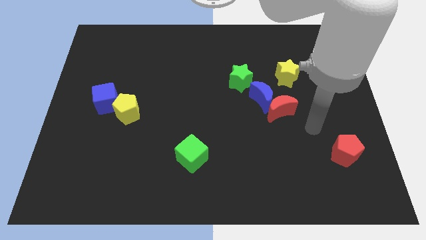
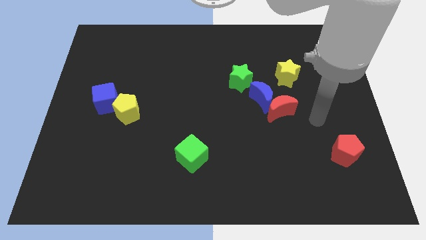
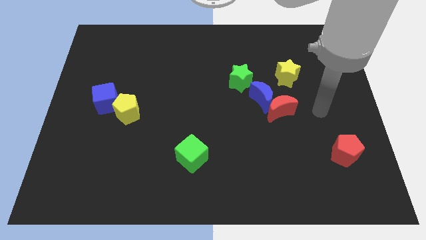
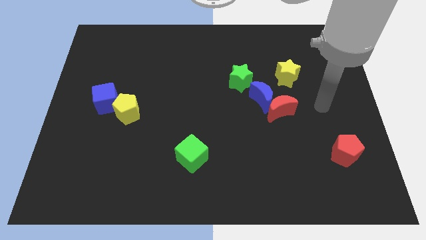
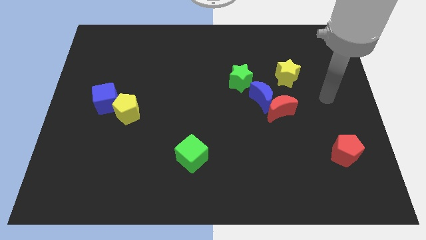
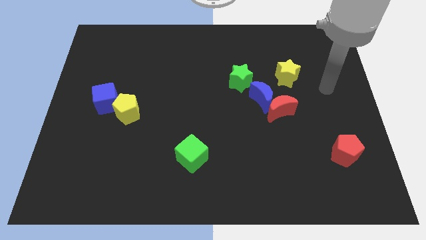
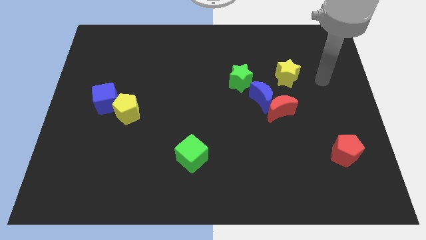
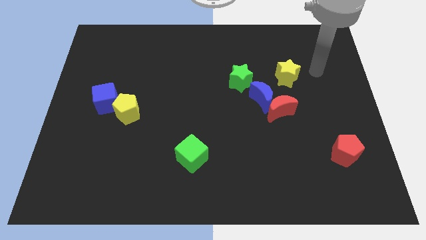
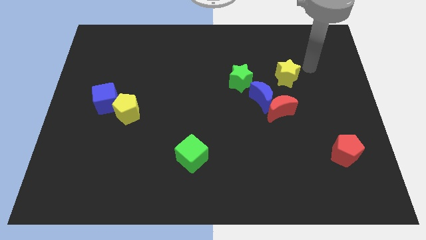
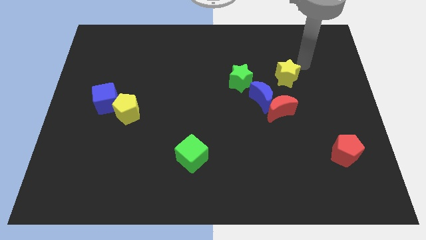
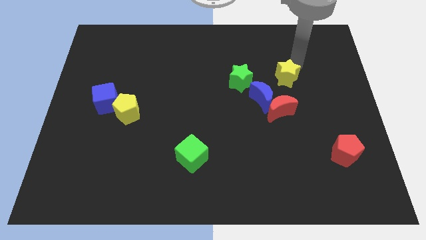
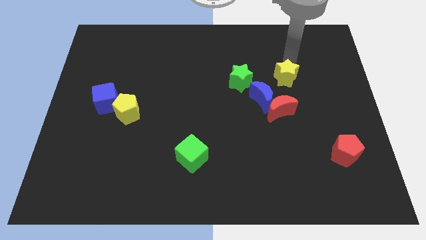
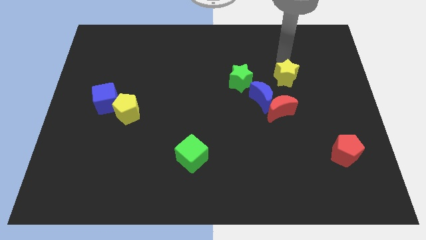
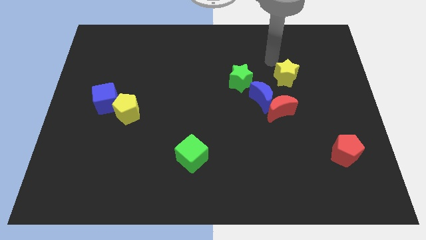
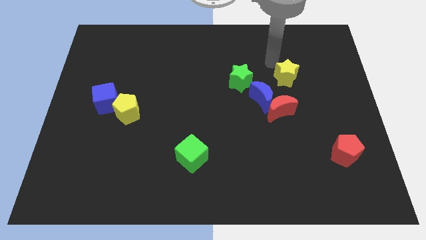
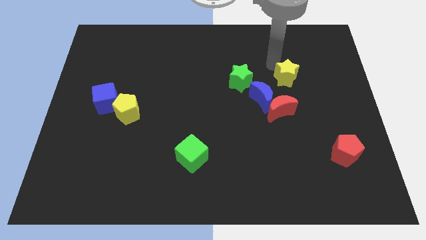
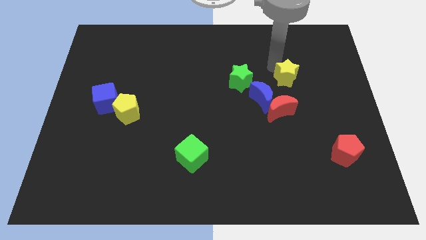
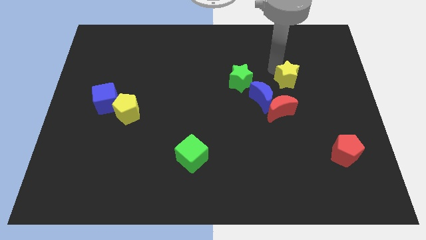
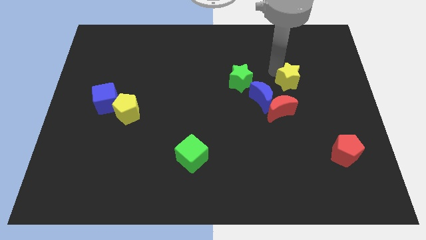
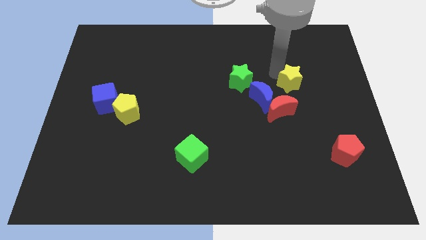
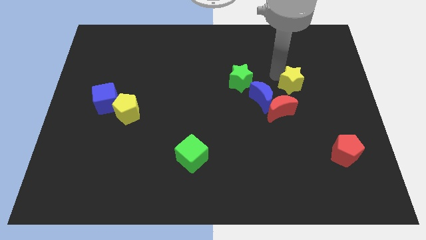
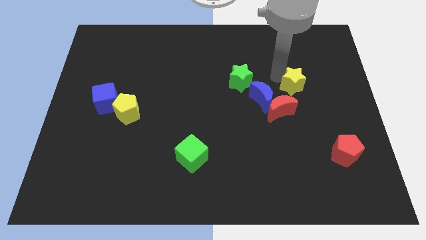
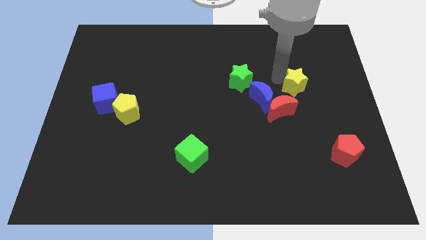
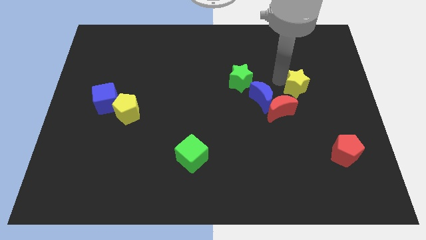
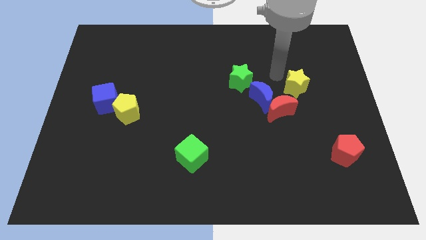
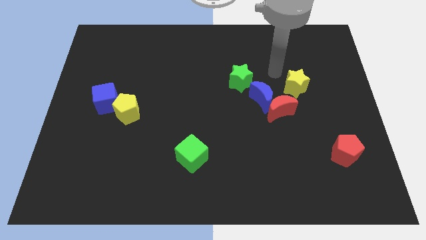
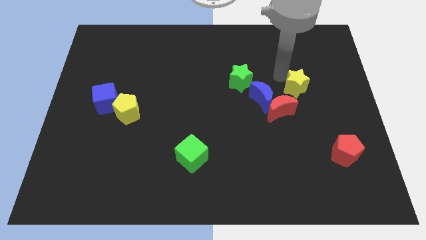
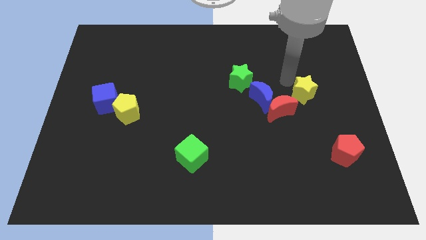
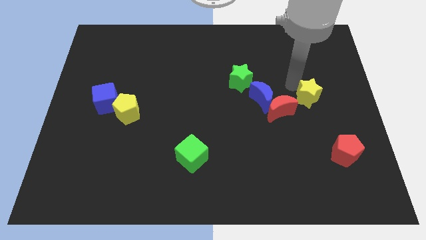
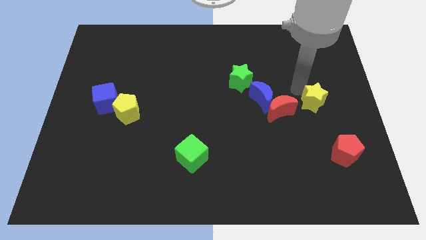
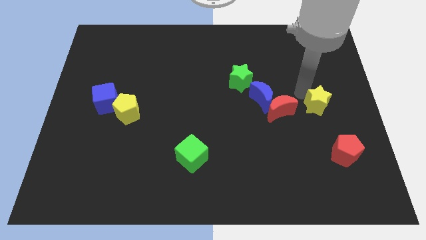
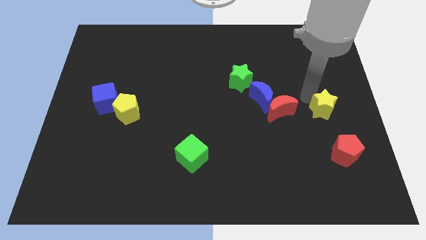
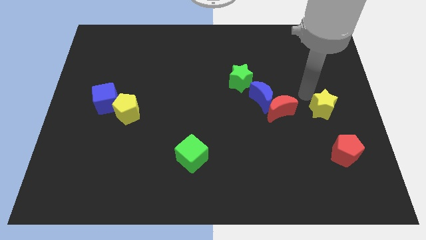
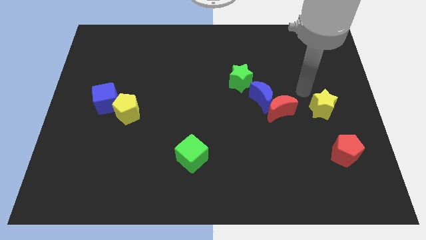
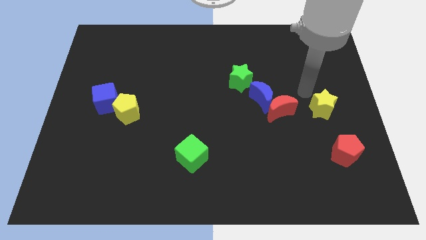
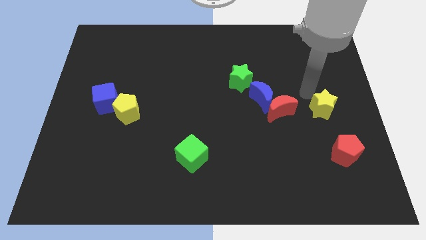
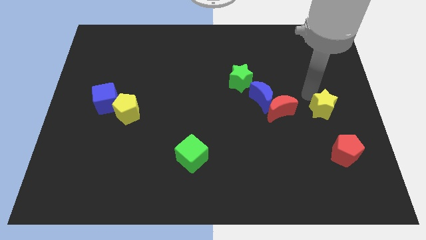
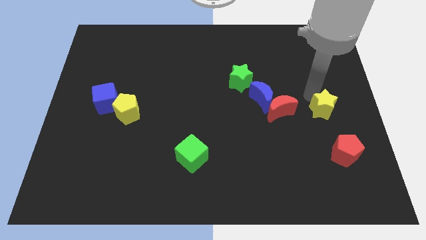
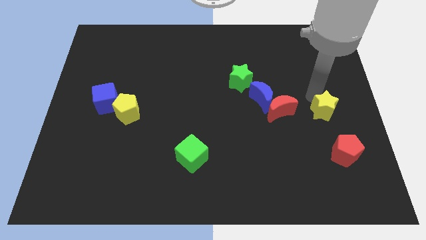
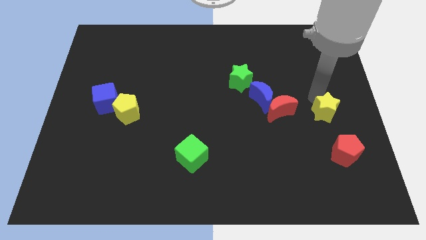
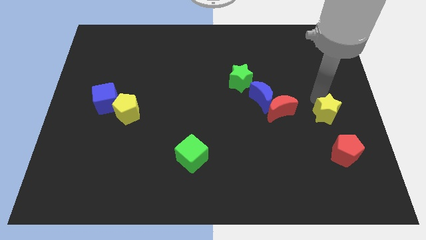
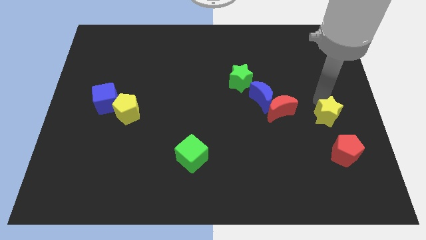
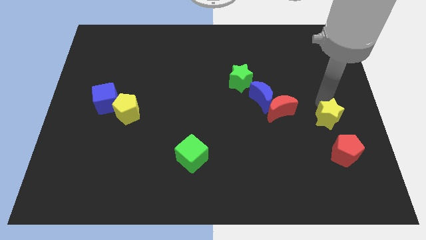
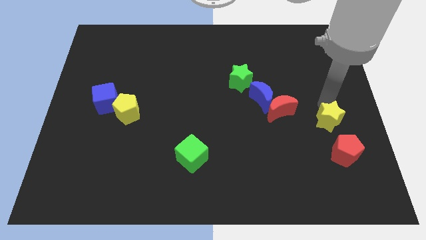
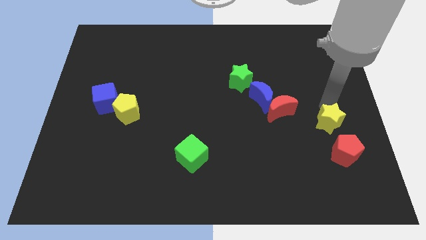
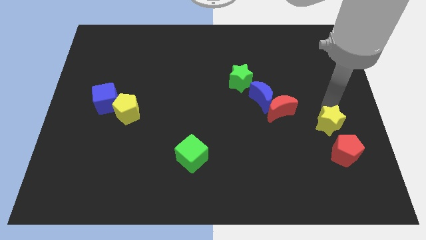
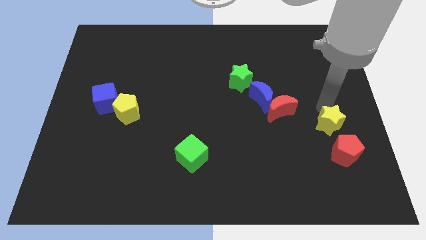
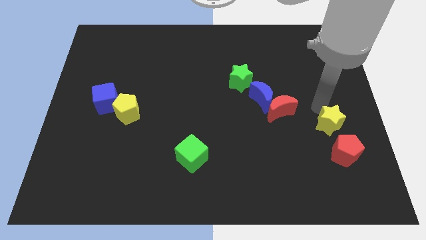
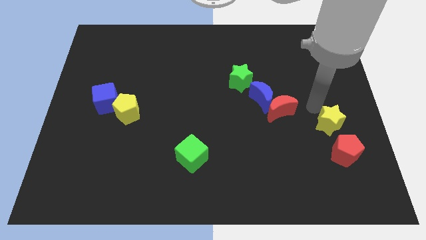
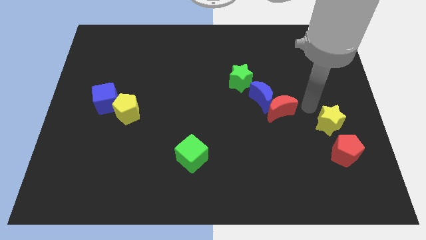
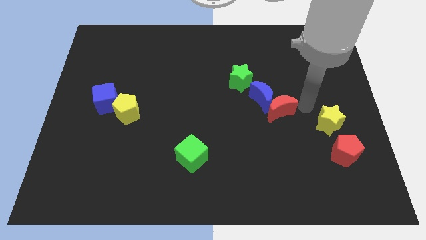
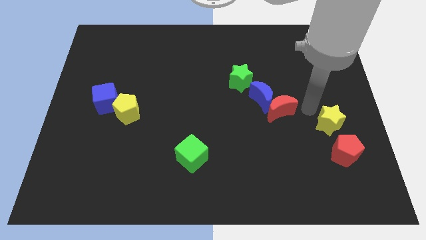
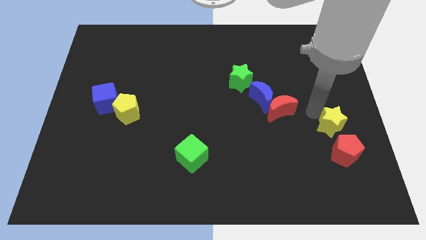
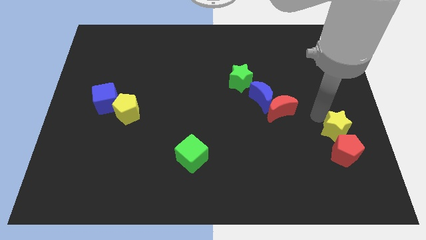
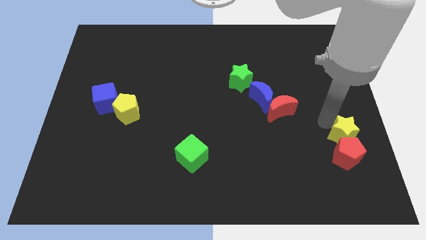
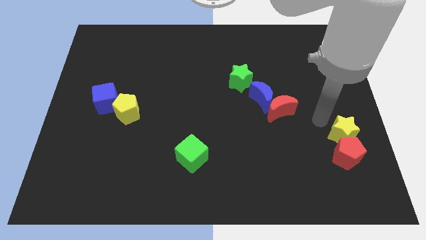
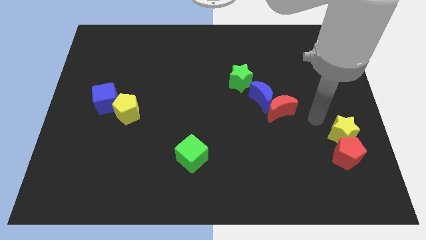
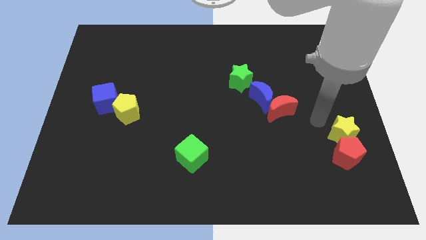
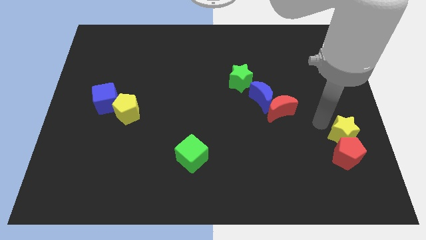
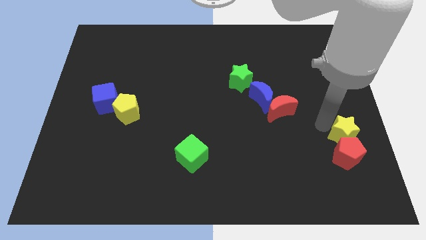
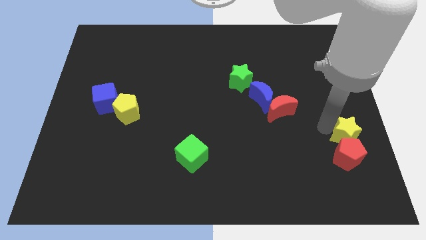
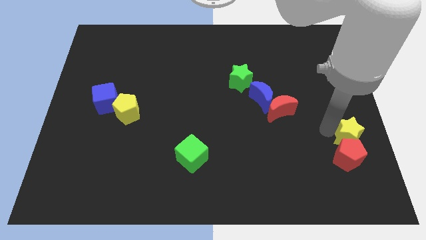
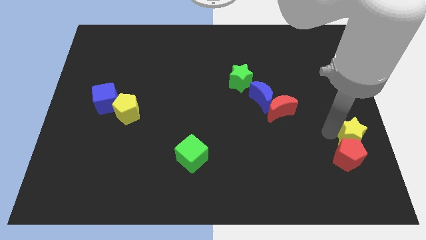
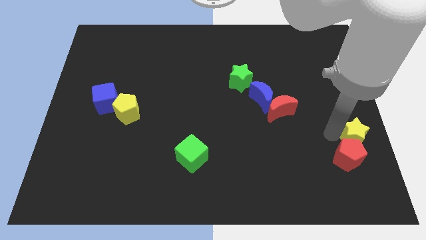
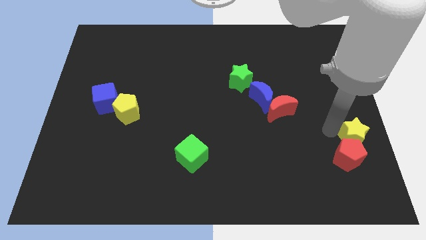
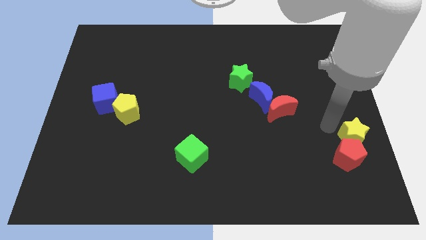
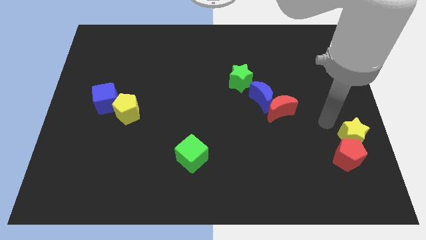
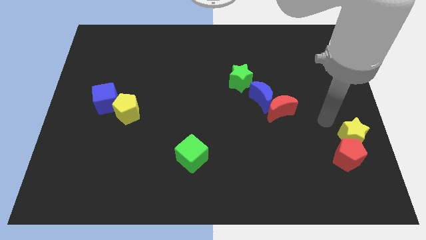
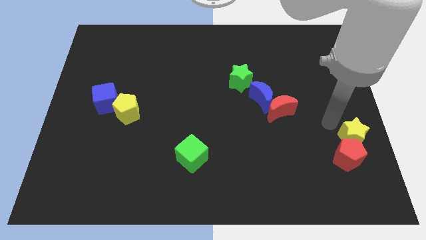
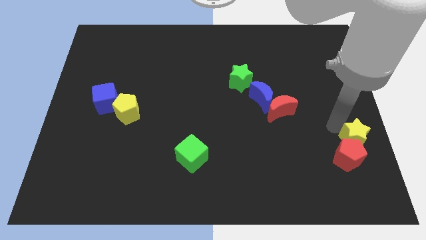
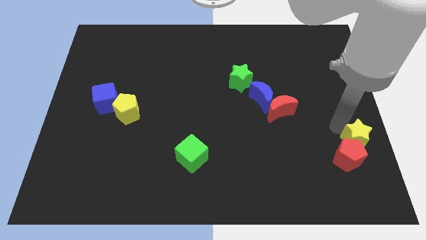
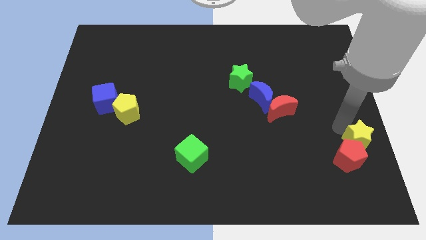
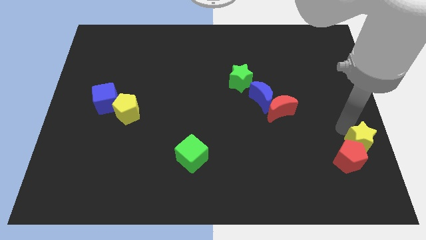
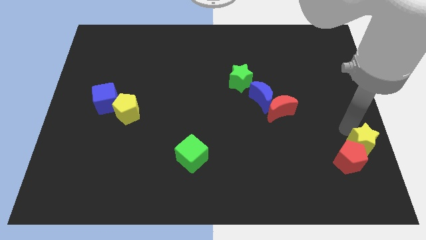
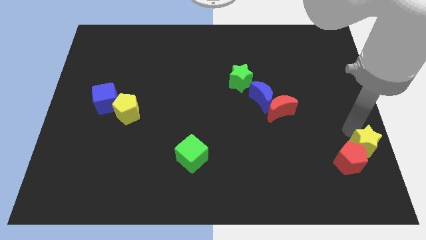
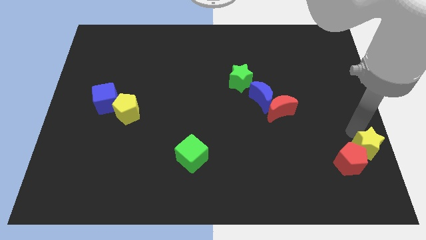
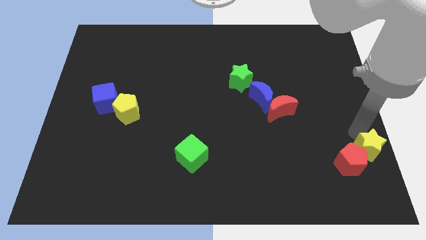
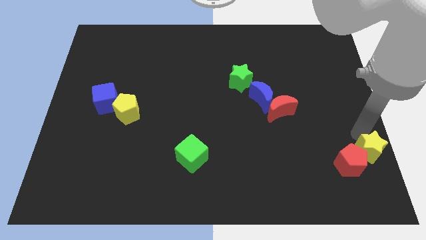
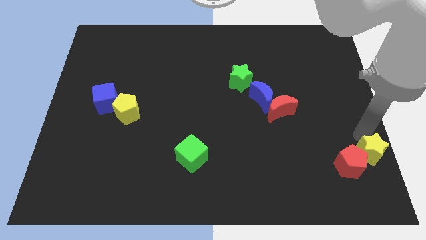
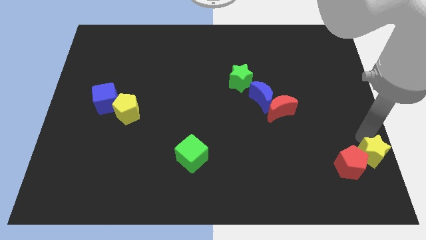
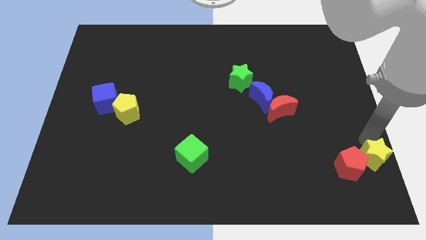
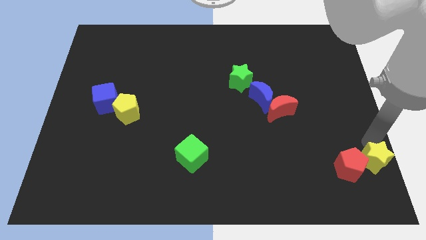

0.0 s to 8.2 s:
push the yellow star to the bottom right
